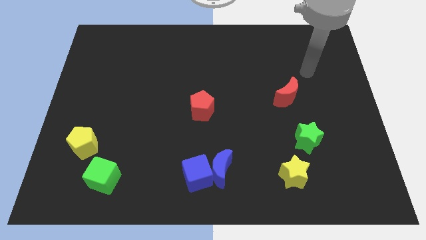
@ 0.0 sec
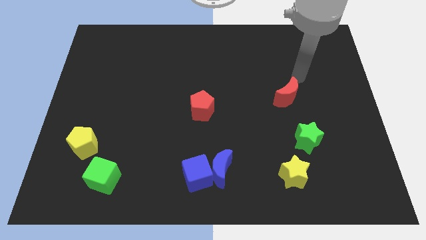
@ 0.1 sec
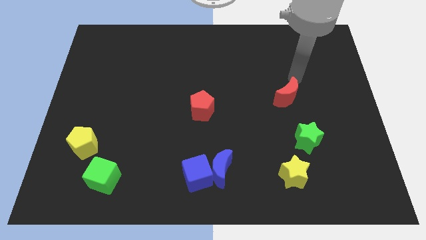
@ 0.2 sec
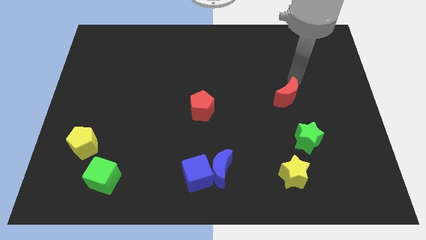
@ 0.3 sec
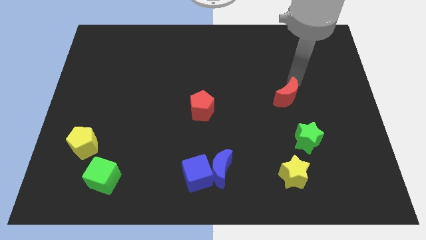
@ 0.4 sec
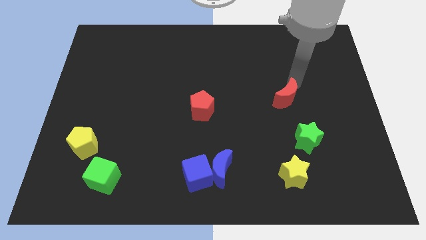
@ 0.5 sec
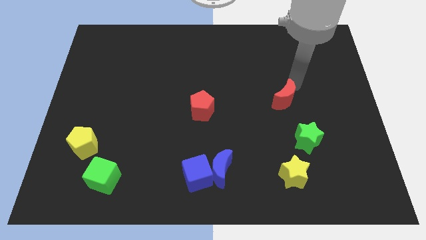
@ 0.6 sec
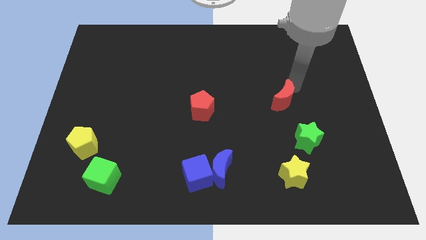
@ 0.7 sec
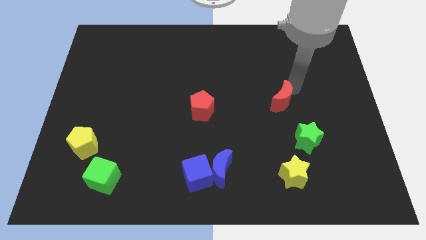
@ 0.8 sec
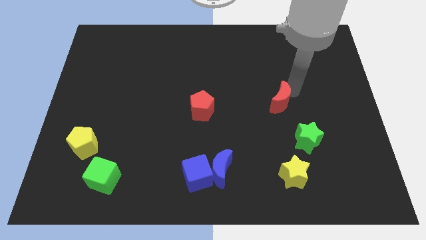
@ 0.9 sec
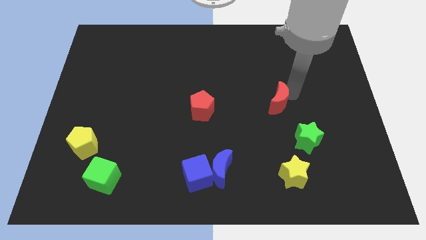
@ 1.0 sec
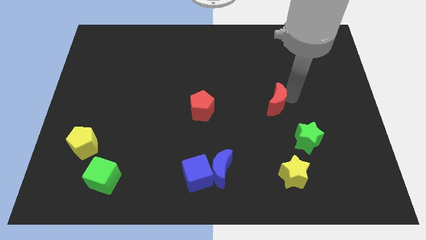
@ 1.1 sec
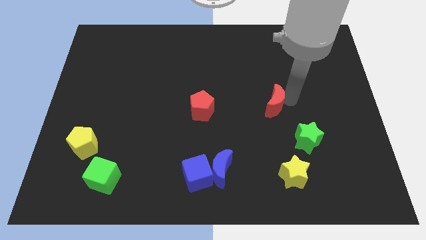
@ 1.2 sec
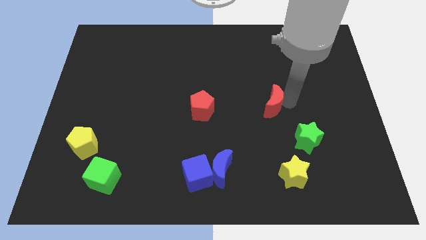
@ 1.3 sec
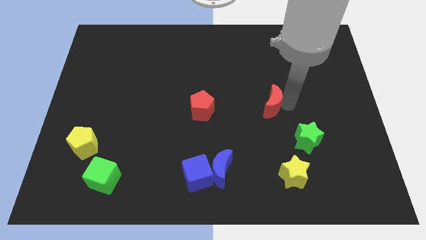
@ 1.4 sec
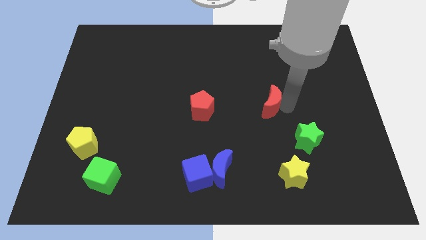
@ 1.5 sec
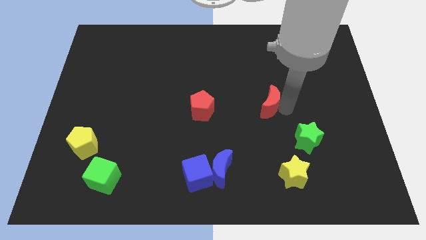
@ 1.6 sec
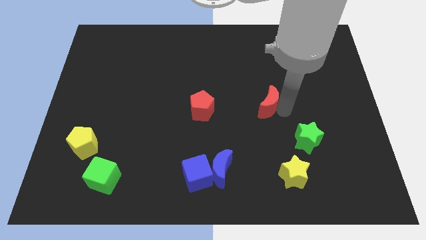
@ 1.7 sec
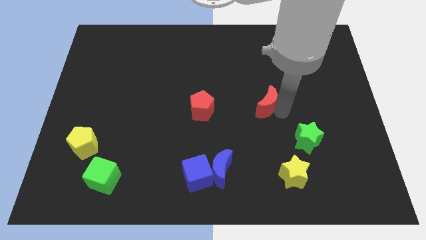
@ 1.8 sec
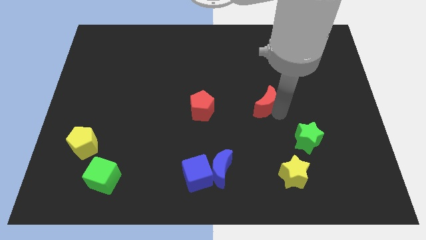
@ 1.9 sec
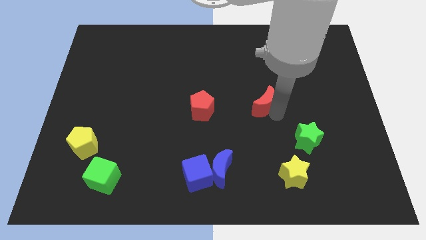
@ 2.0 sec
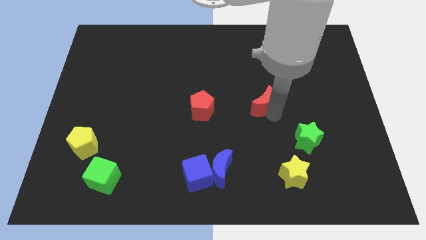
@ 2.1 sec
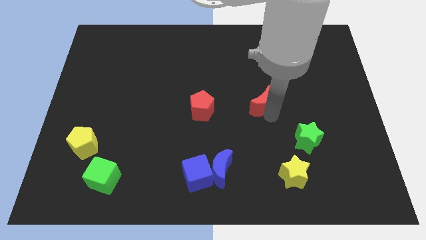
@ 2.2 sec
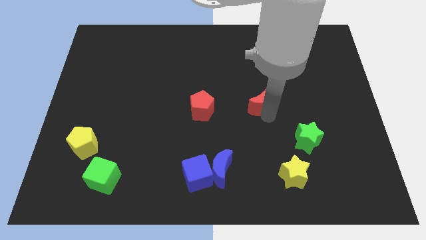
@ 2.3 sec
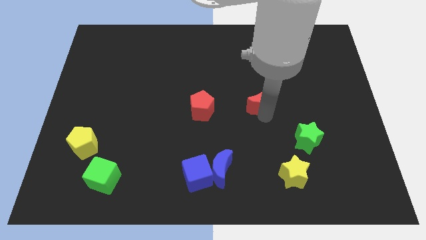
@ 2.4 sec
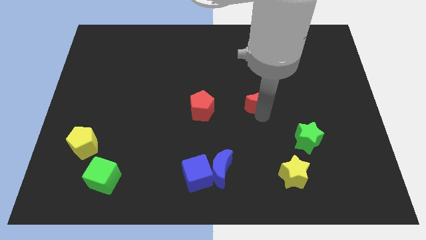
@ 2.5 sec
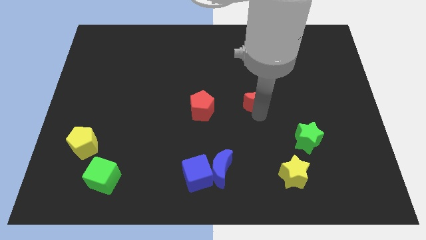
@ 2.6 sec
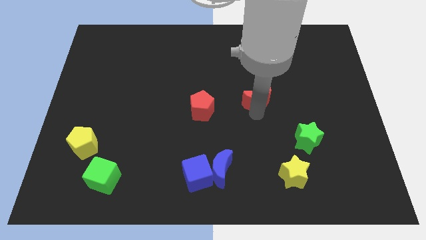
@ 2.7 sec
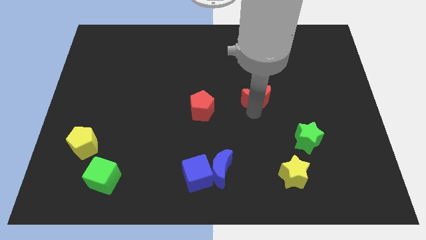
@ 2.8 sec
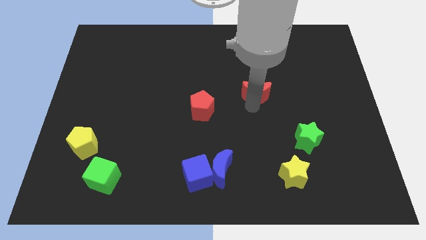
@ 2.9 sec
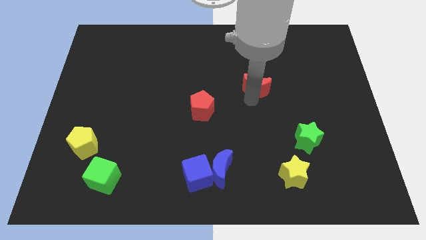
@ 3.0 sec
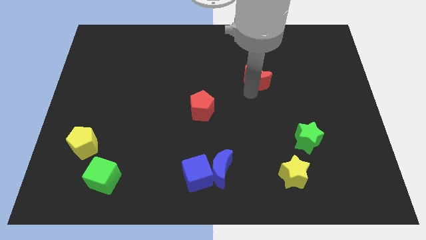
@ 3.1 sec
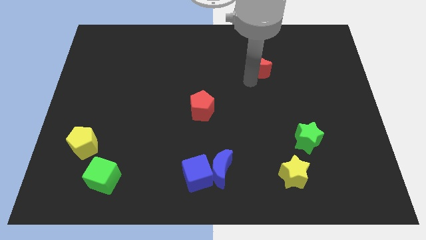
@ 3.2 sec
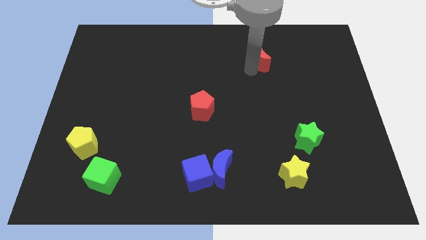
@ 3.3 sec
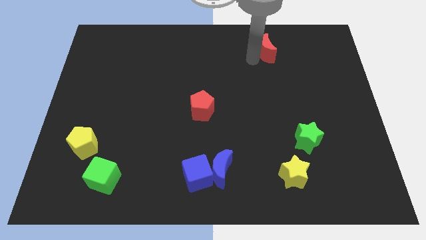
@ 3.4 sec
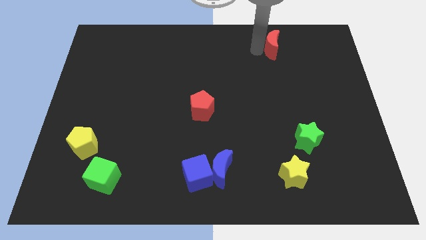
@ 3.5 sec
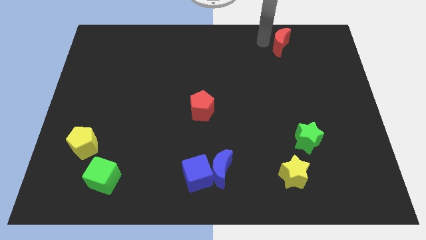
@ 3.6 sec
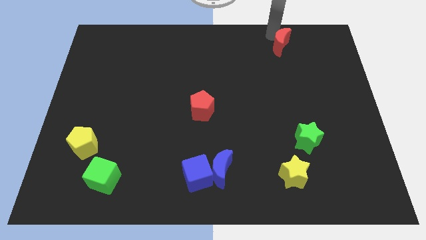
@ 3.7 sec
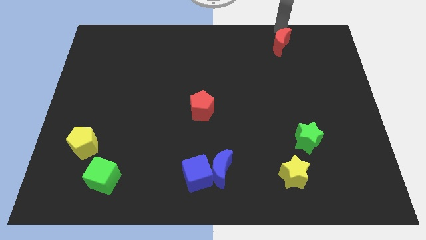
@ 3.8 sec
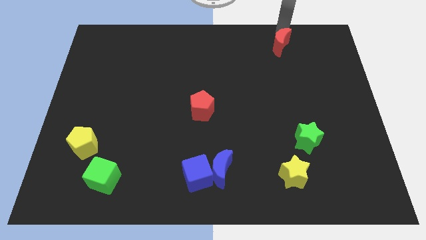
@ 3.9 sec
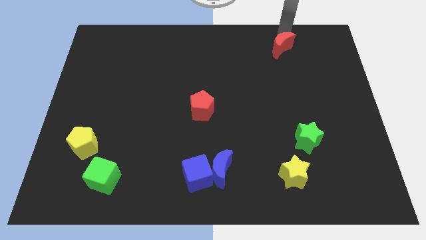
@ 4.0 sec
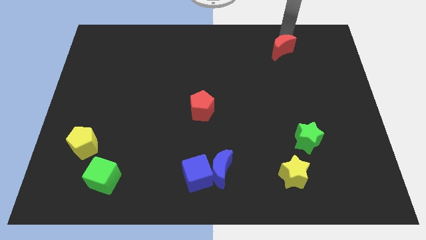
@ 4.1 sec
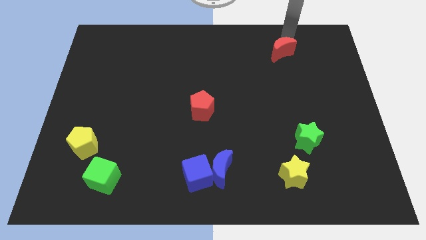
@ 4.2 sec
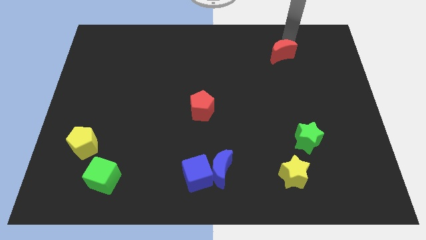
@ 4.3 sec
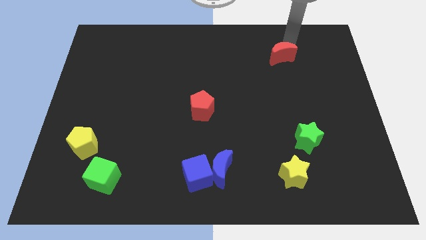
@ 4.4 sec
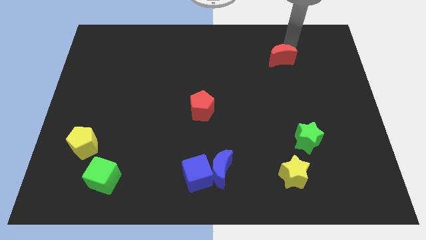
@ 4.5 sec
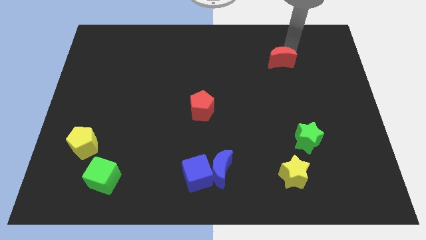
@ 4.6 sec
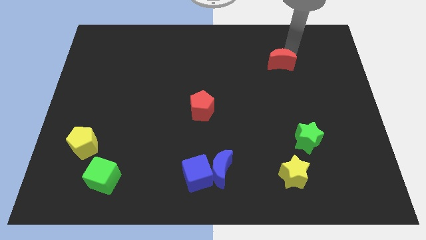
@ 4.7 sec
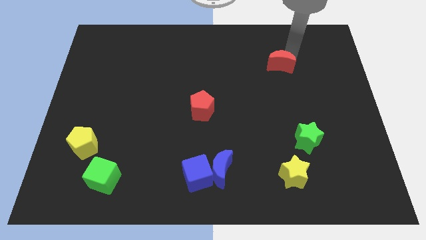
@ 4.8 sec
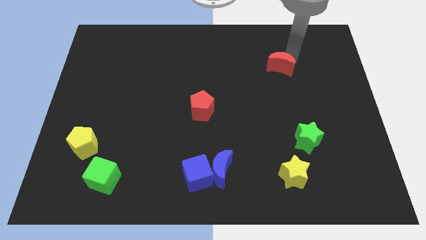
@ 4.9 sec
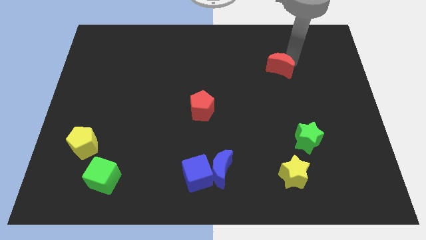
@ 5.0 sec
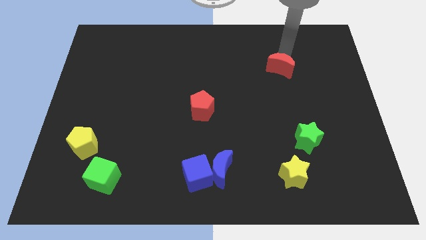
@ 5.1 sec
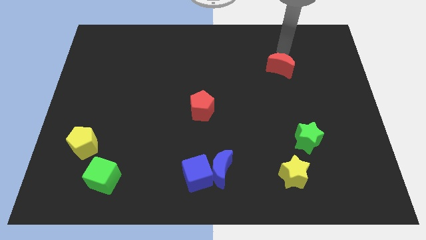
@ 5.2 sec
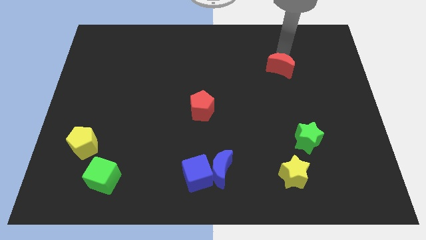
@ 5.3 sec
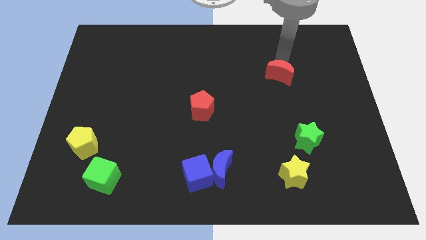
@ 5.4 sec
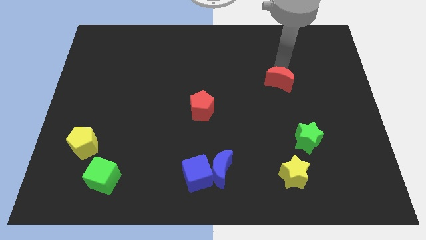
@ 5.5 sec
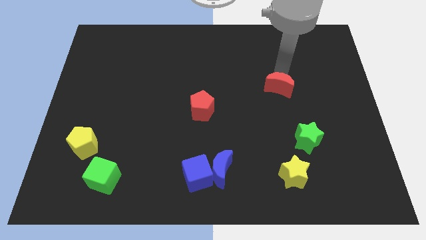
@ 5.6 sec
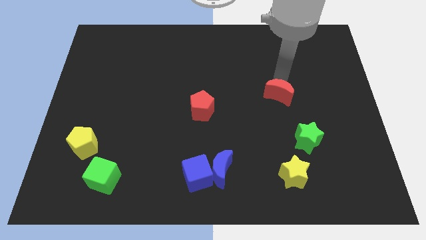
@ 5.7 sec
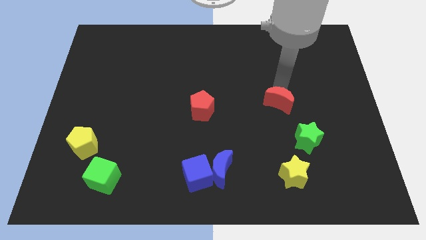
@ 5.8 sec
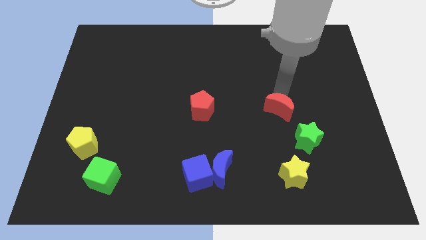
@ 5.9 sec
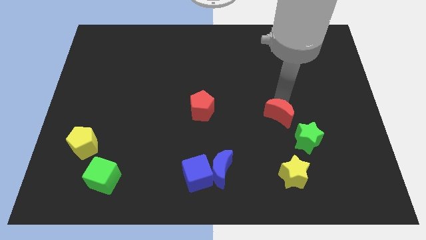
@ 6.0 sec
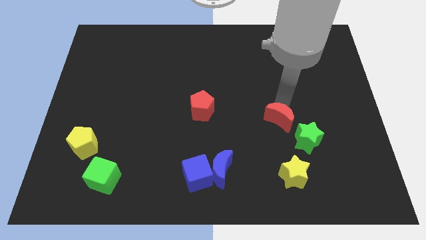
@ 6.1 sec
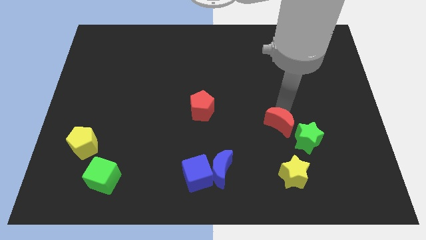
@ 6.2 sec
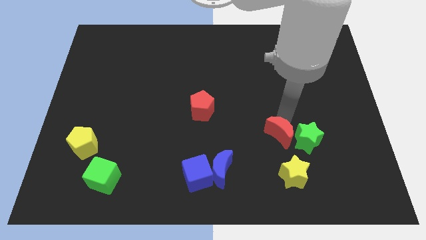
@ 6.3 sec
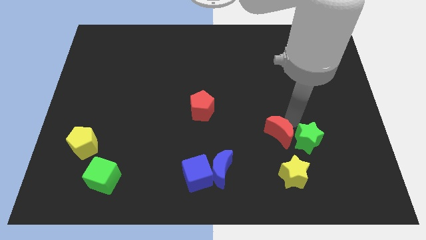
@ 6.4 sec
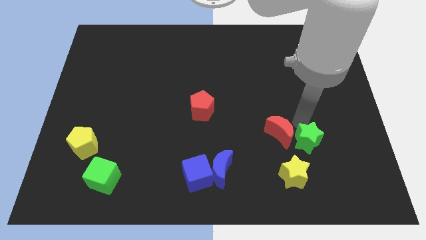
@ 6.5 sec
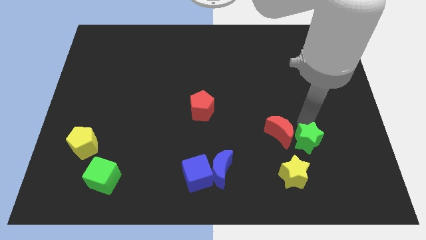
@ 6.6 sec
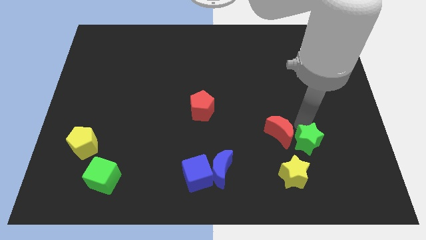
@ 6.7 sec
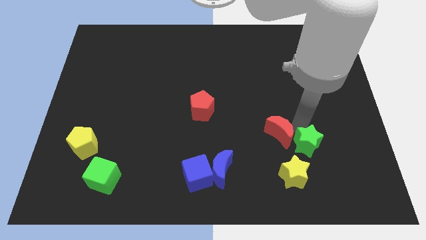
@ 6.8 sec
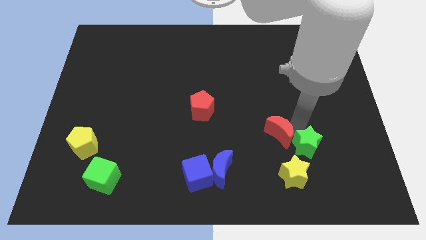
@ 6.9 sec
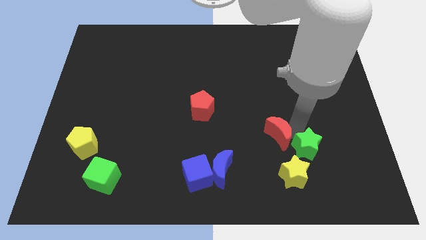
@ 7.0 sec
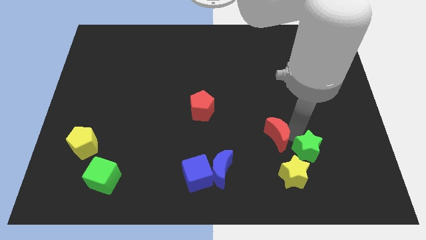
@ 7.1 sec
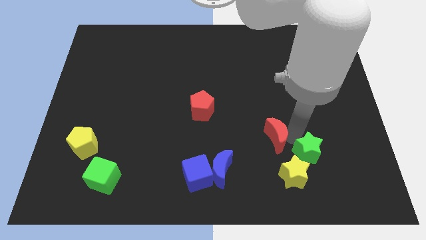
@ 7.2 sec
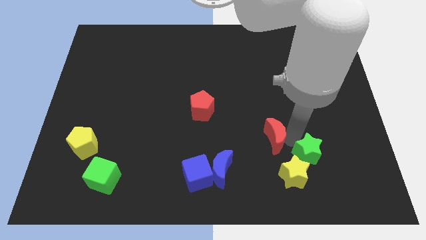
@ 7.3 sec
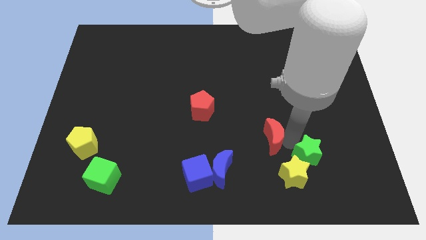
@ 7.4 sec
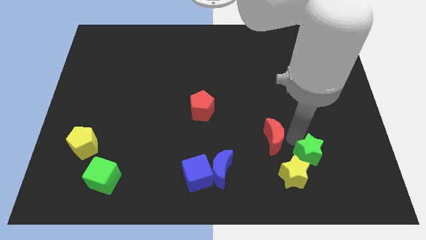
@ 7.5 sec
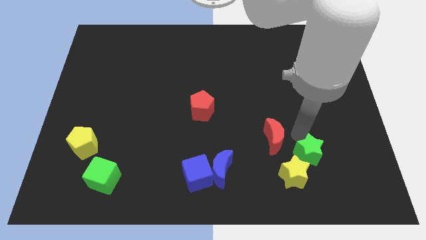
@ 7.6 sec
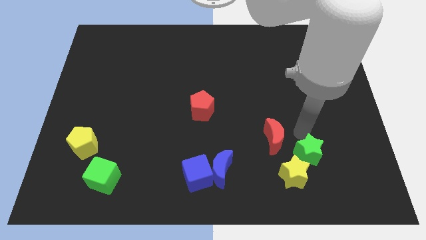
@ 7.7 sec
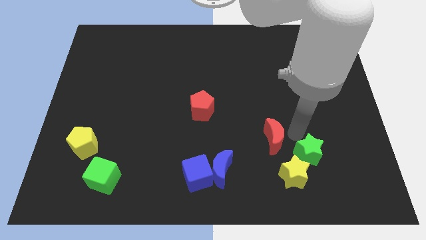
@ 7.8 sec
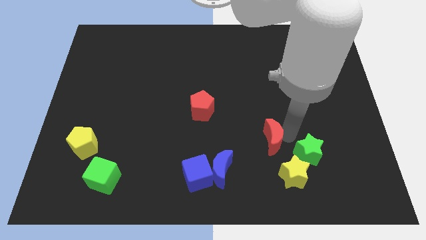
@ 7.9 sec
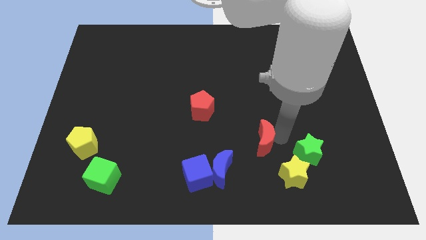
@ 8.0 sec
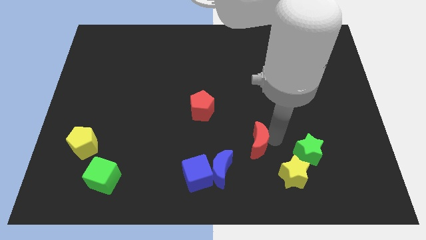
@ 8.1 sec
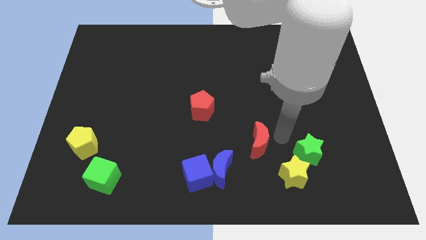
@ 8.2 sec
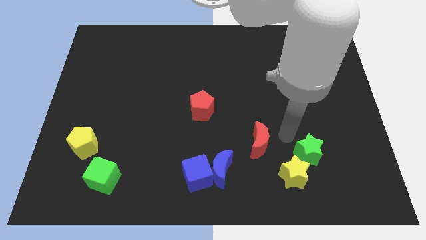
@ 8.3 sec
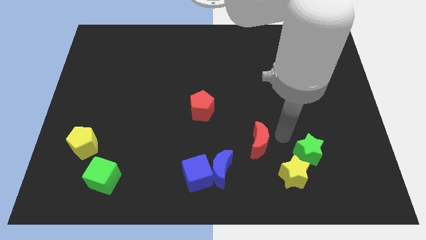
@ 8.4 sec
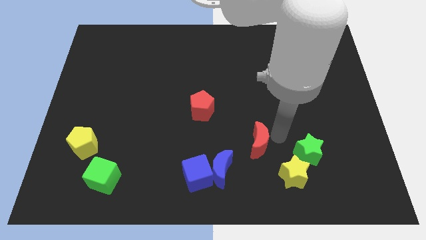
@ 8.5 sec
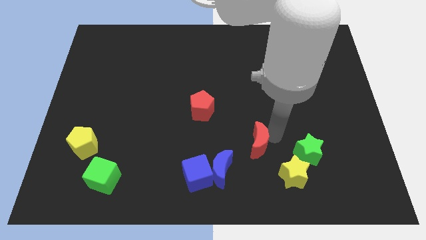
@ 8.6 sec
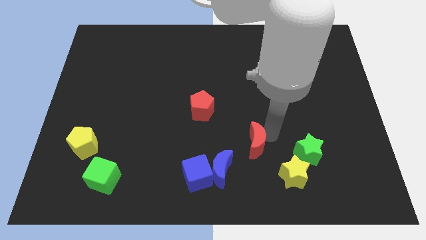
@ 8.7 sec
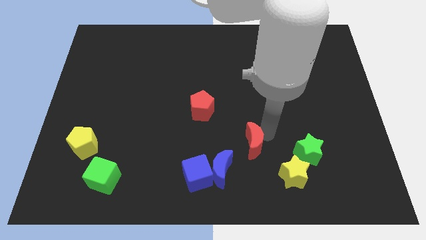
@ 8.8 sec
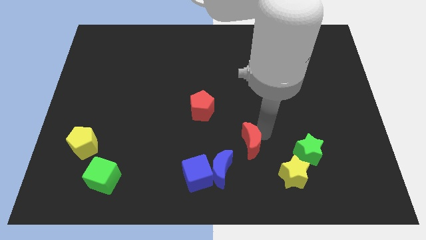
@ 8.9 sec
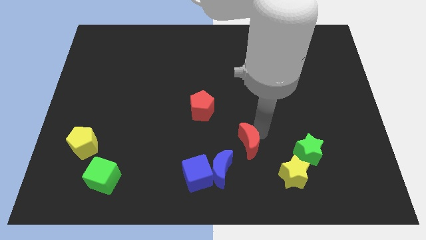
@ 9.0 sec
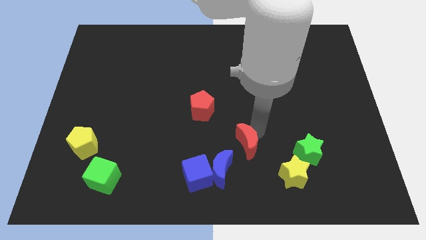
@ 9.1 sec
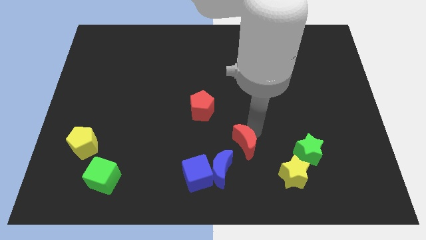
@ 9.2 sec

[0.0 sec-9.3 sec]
move the red moon to the top right side of the blue cube
